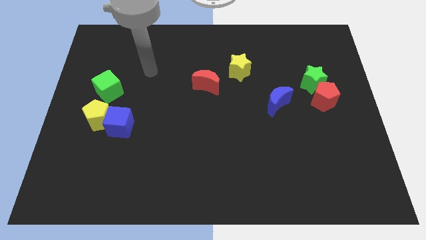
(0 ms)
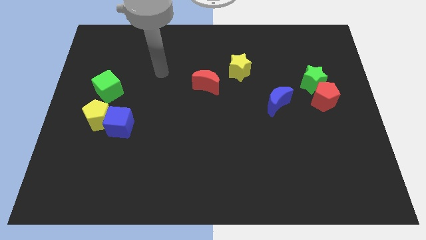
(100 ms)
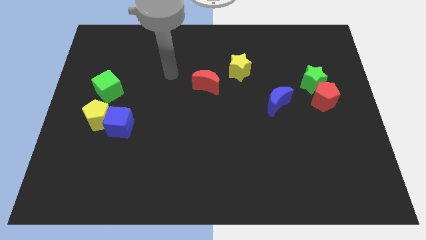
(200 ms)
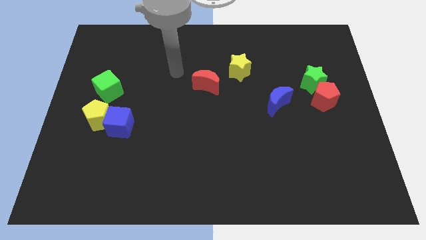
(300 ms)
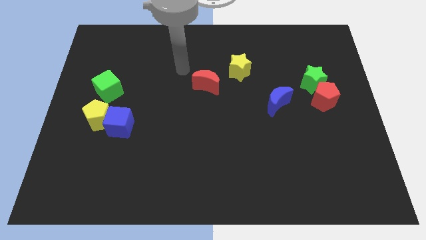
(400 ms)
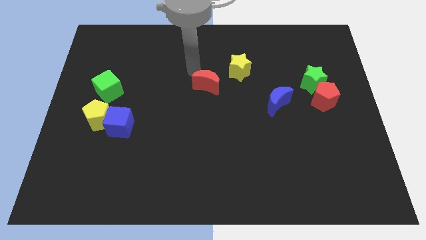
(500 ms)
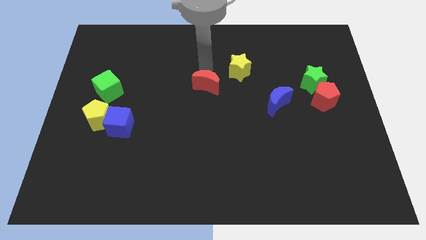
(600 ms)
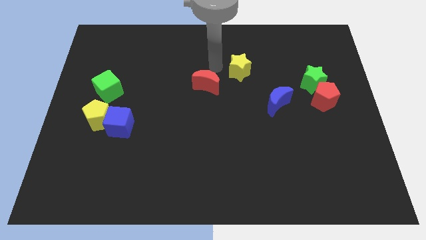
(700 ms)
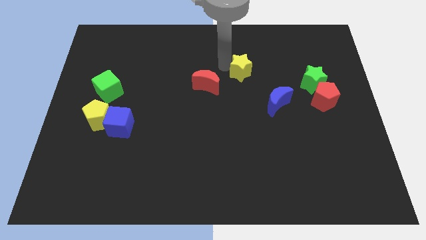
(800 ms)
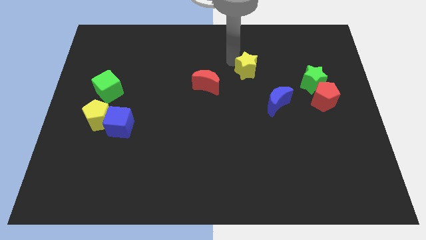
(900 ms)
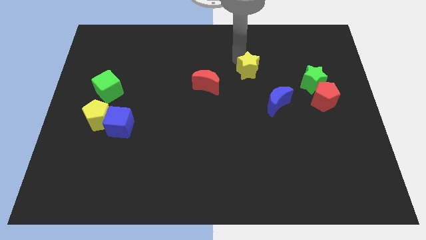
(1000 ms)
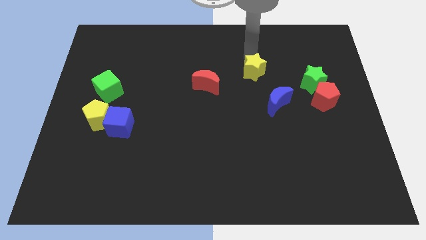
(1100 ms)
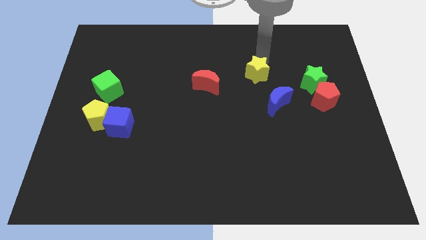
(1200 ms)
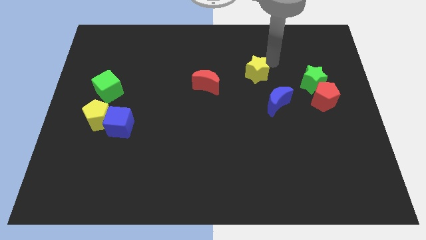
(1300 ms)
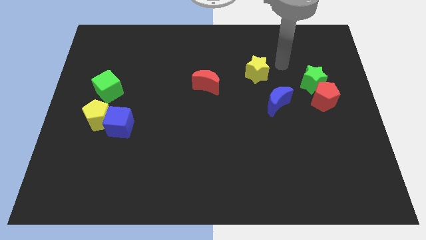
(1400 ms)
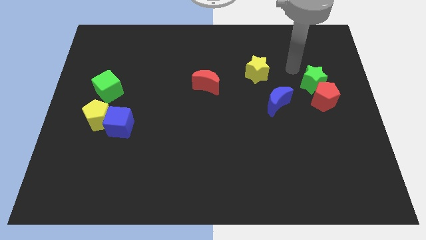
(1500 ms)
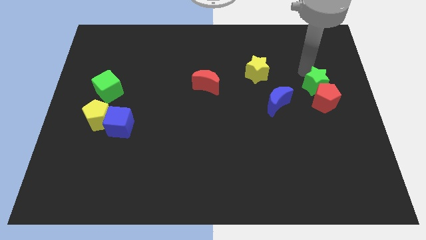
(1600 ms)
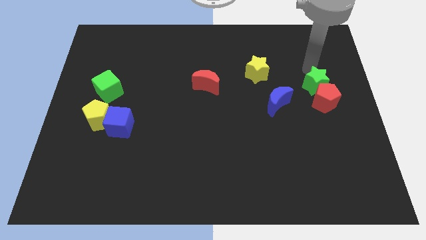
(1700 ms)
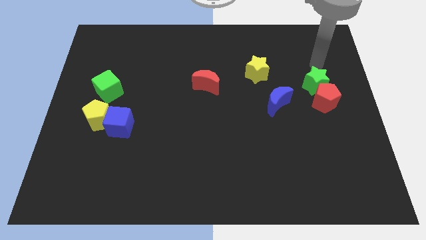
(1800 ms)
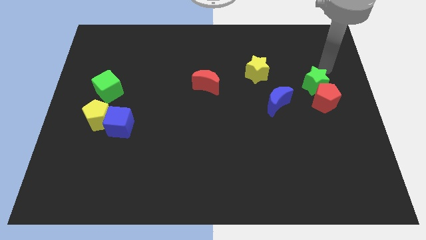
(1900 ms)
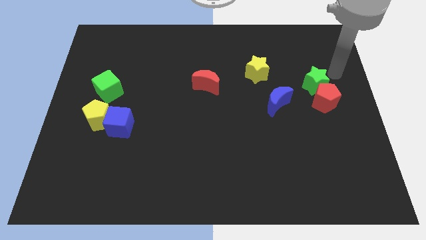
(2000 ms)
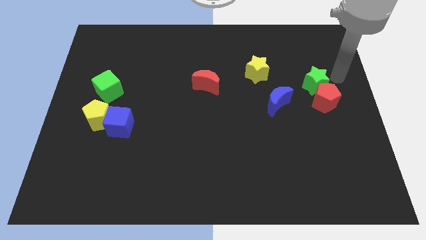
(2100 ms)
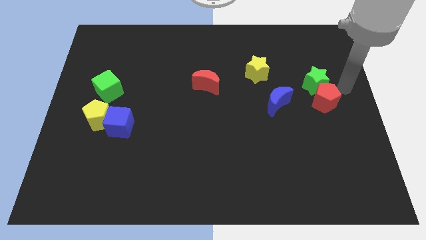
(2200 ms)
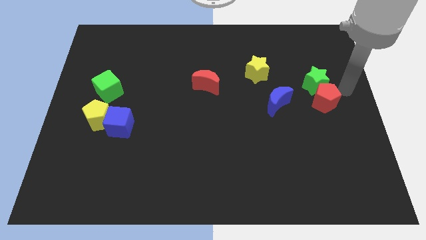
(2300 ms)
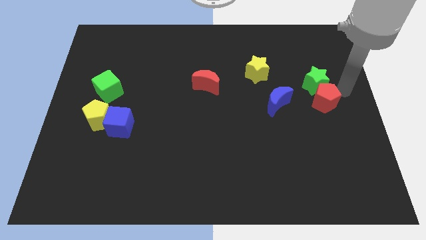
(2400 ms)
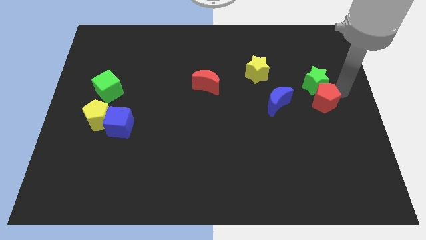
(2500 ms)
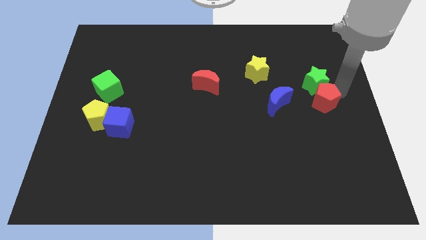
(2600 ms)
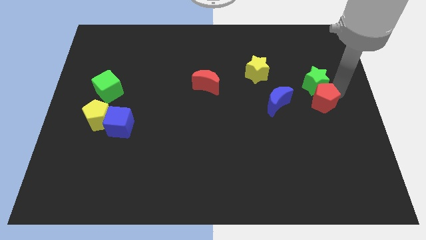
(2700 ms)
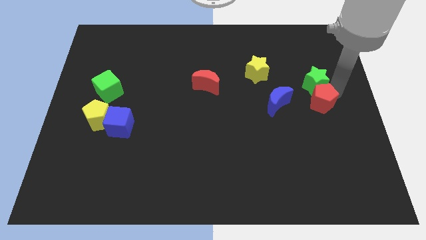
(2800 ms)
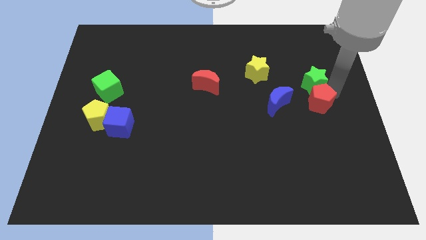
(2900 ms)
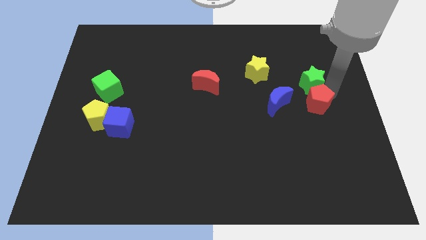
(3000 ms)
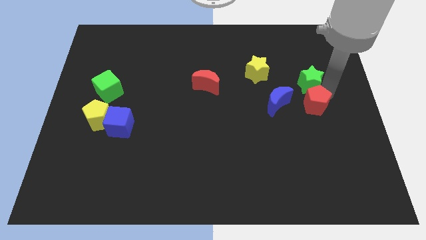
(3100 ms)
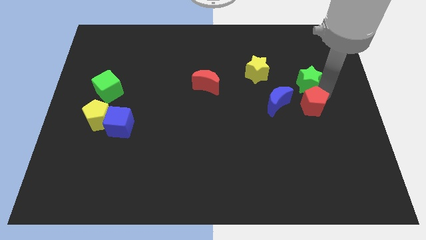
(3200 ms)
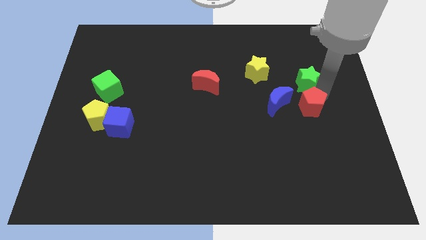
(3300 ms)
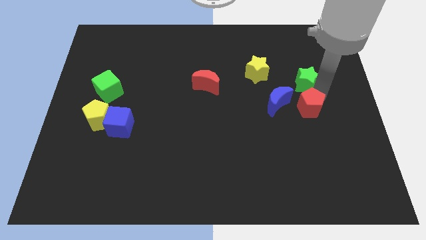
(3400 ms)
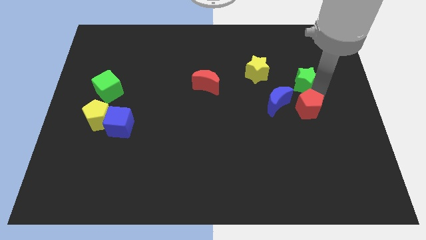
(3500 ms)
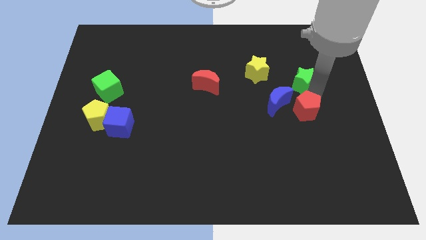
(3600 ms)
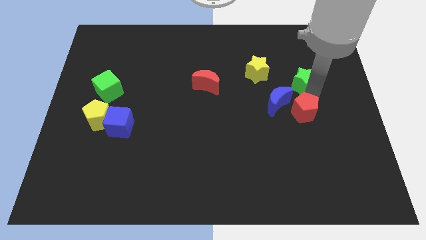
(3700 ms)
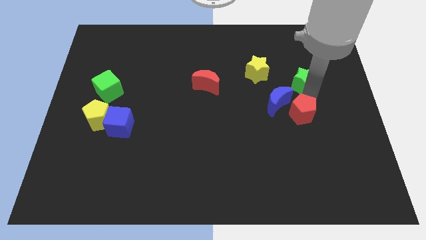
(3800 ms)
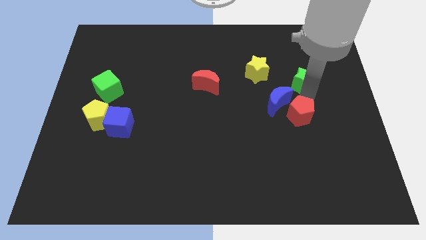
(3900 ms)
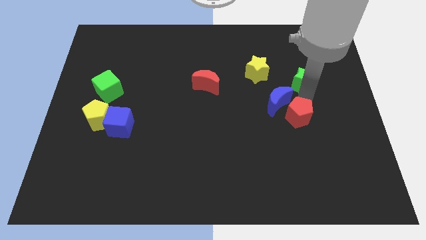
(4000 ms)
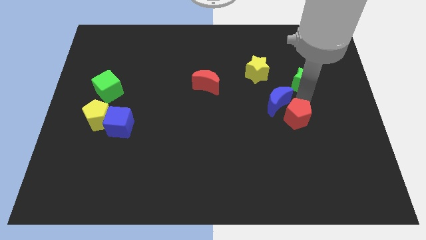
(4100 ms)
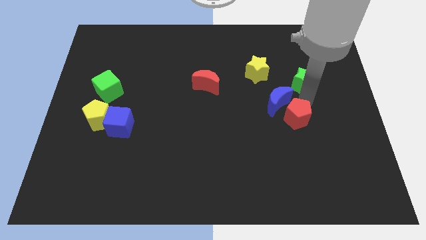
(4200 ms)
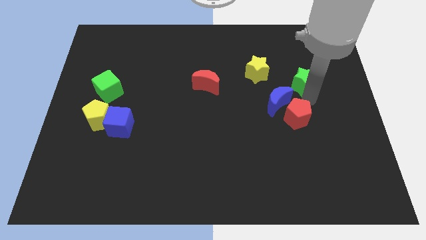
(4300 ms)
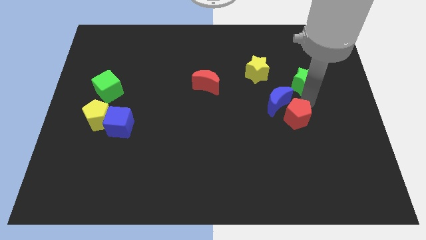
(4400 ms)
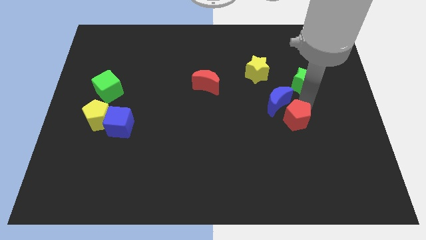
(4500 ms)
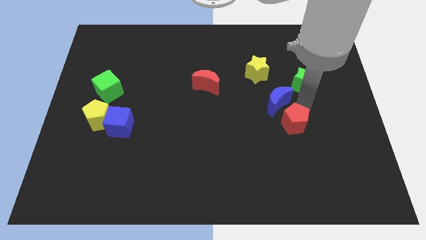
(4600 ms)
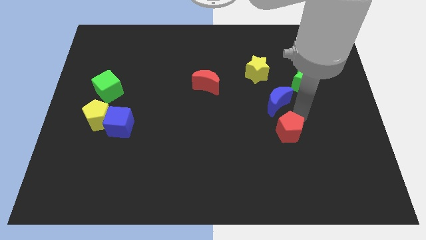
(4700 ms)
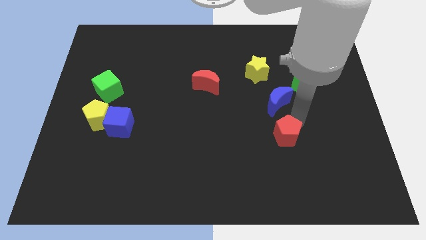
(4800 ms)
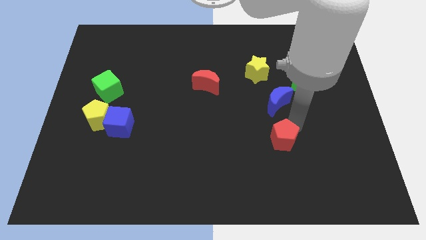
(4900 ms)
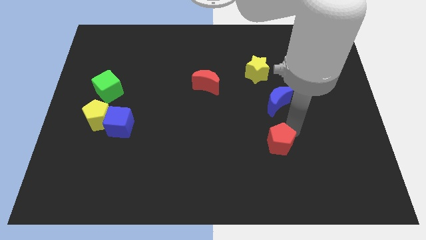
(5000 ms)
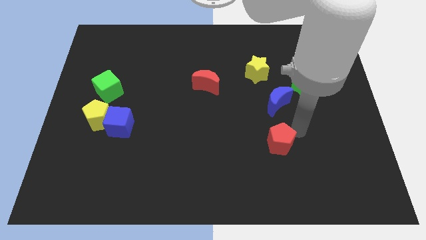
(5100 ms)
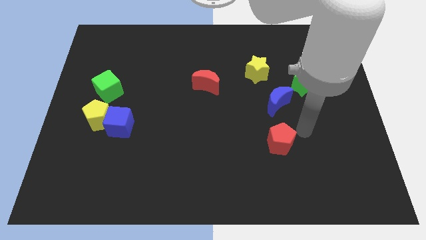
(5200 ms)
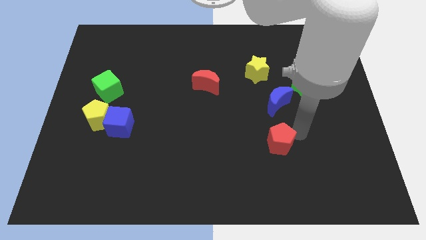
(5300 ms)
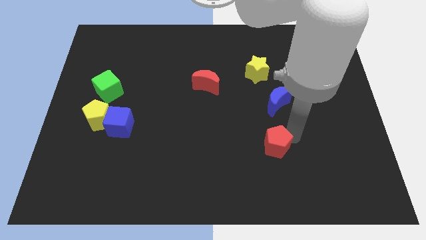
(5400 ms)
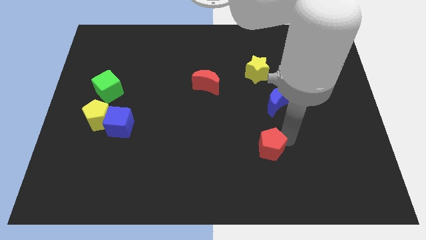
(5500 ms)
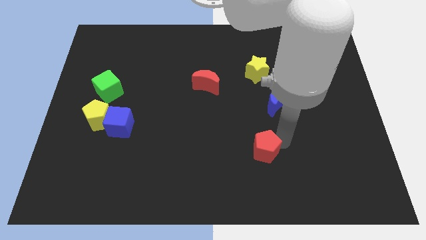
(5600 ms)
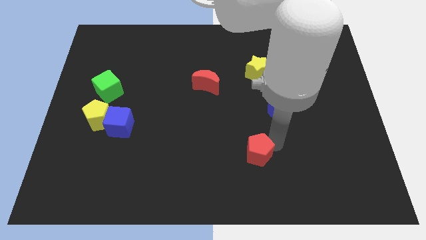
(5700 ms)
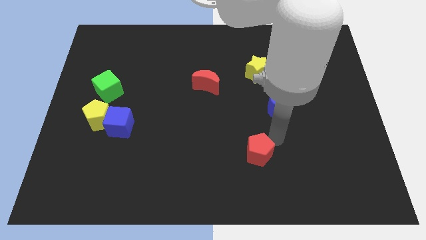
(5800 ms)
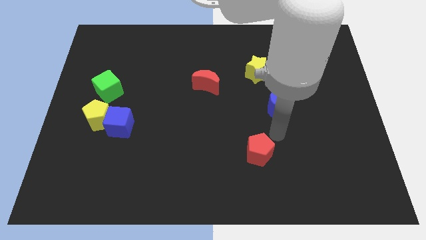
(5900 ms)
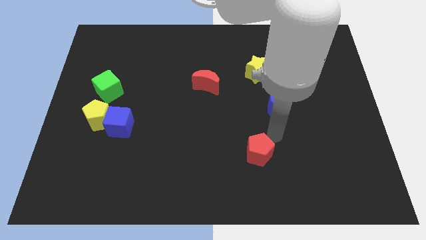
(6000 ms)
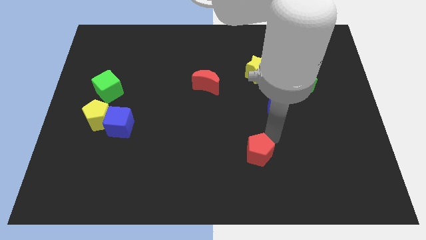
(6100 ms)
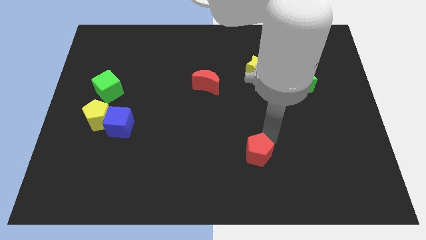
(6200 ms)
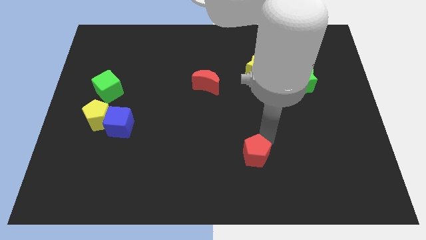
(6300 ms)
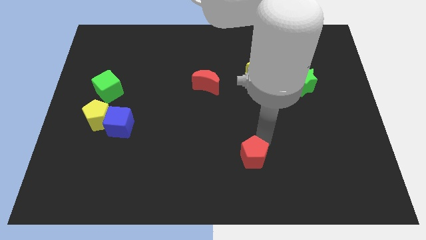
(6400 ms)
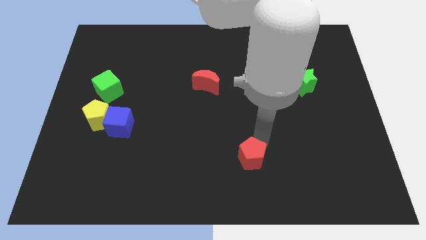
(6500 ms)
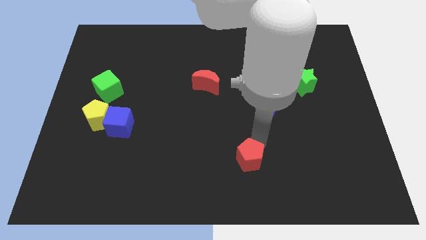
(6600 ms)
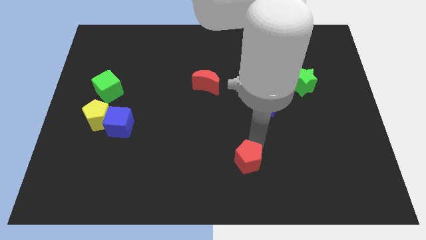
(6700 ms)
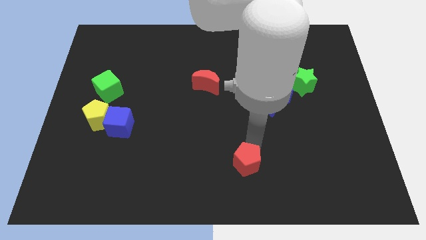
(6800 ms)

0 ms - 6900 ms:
slide the red pentagon to the bottom
